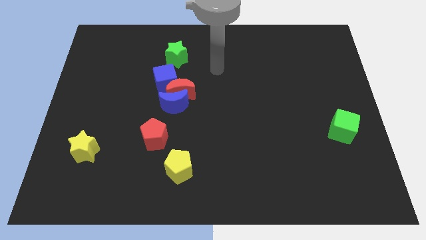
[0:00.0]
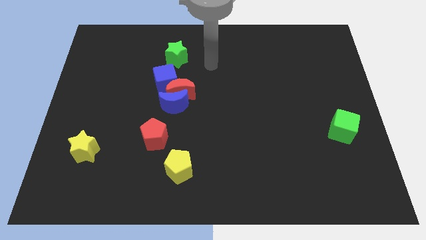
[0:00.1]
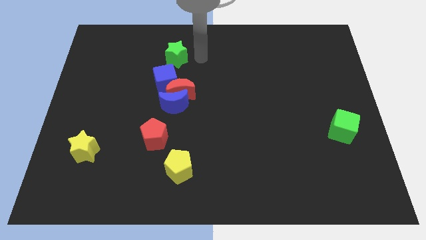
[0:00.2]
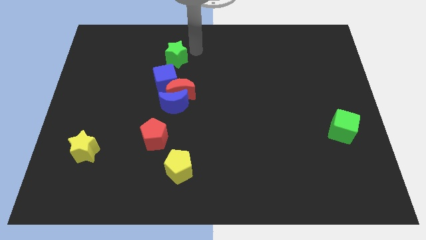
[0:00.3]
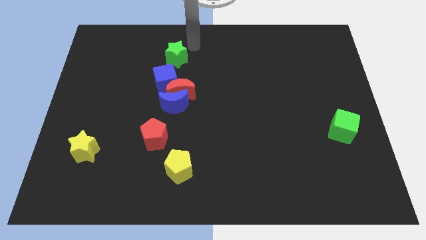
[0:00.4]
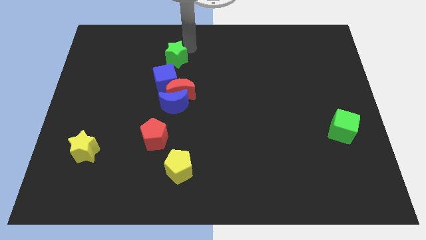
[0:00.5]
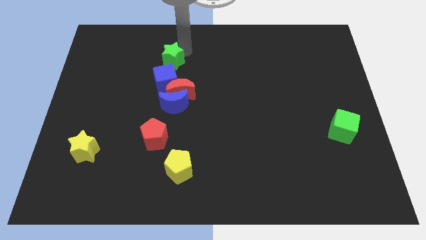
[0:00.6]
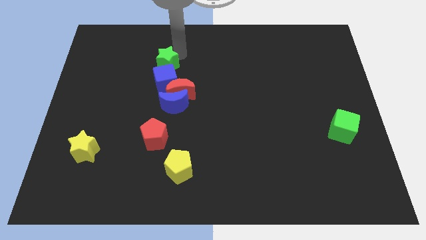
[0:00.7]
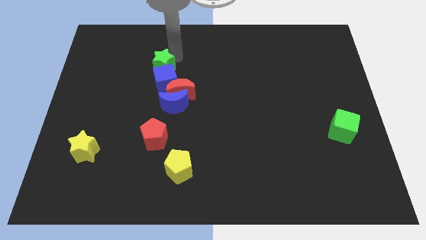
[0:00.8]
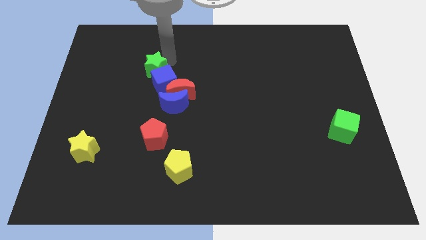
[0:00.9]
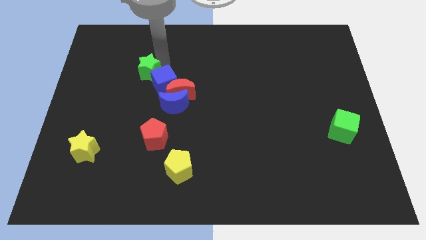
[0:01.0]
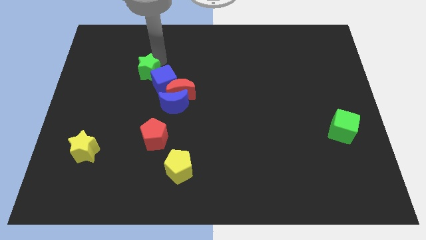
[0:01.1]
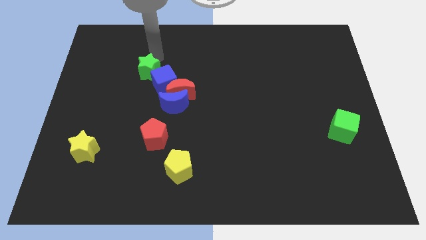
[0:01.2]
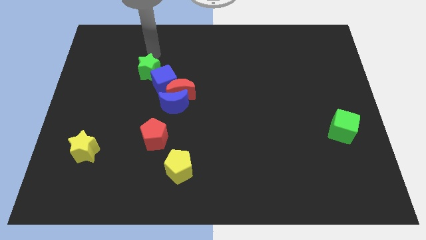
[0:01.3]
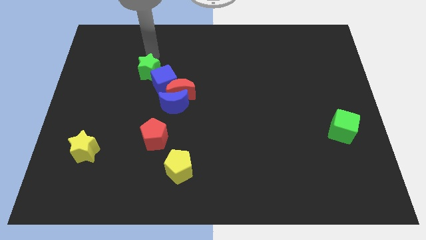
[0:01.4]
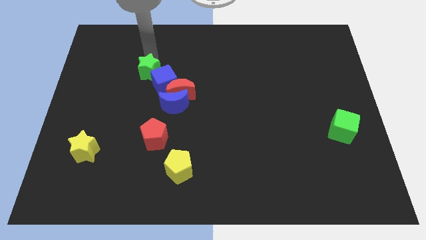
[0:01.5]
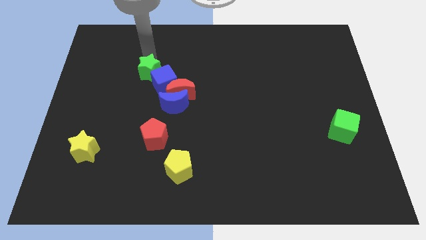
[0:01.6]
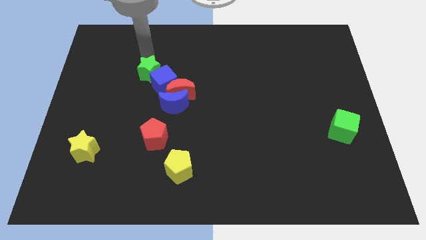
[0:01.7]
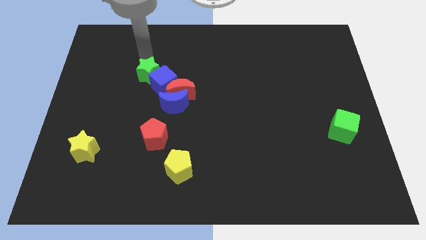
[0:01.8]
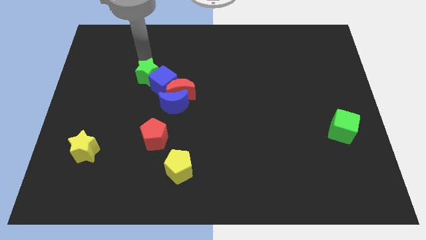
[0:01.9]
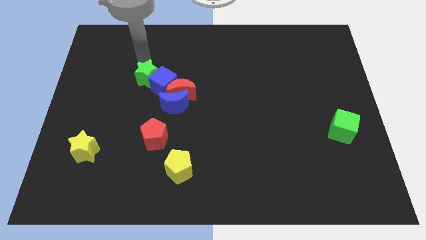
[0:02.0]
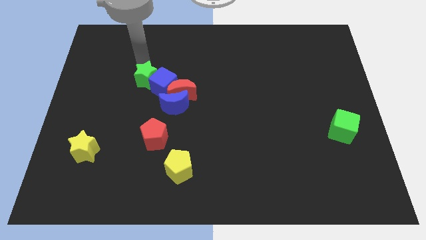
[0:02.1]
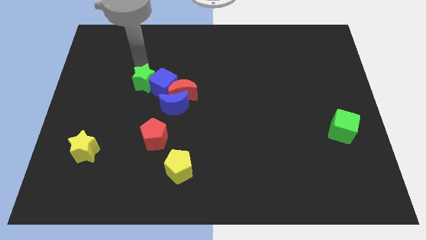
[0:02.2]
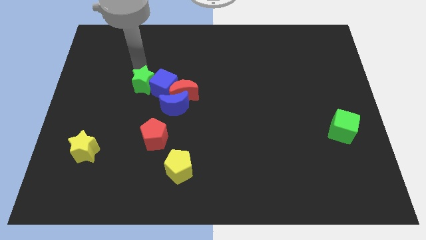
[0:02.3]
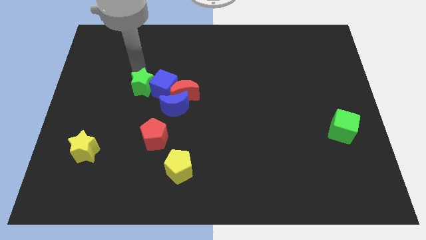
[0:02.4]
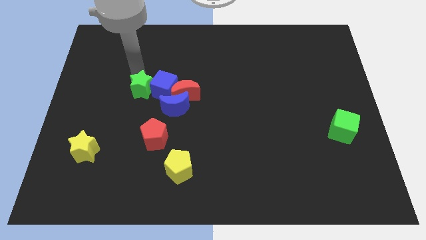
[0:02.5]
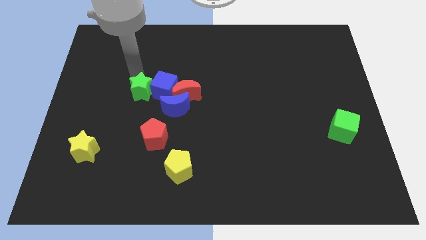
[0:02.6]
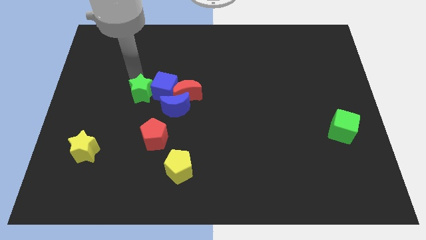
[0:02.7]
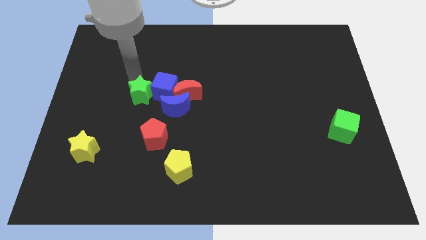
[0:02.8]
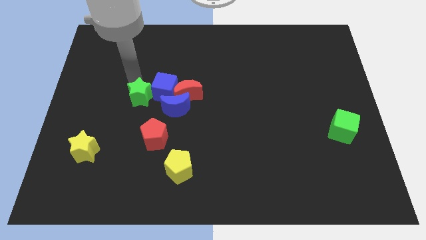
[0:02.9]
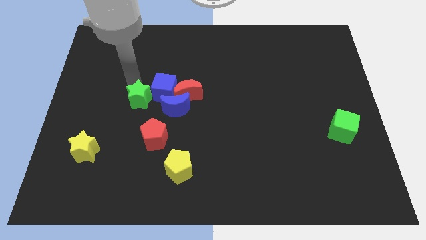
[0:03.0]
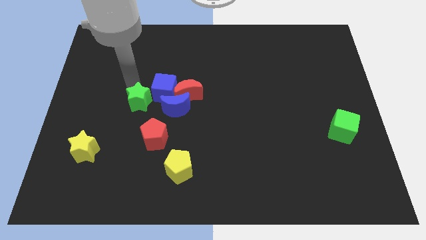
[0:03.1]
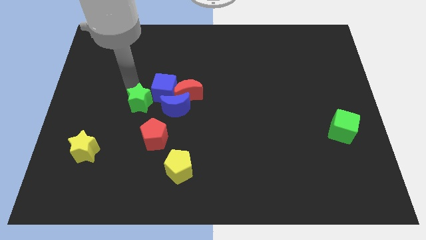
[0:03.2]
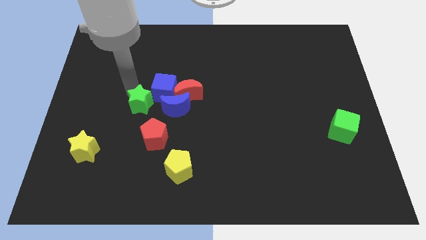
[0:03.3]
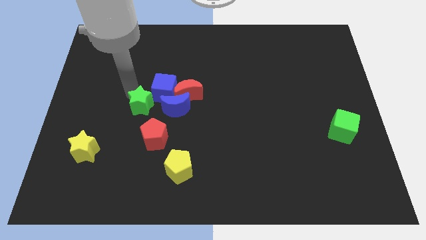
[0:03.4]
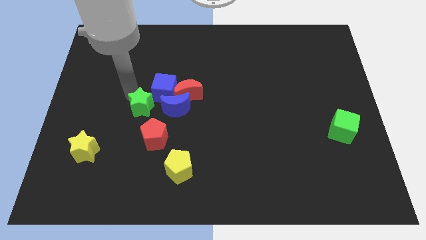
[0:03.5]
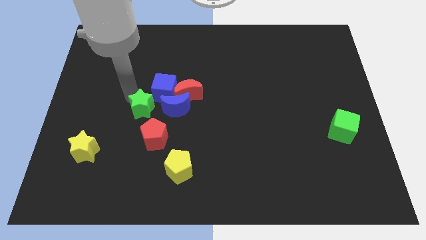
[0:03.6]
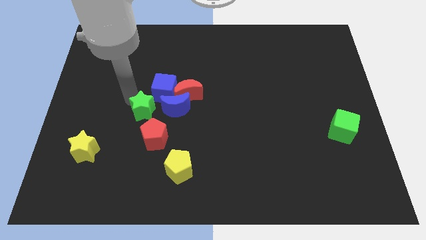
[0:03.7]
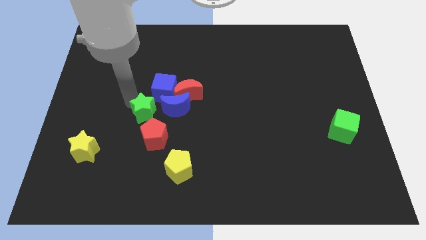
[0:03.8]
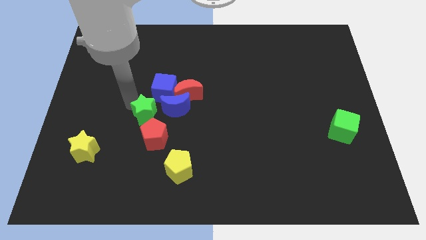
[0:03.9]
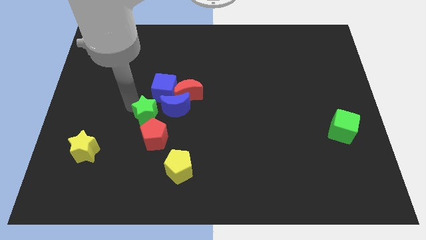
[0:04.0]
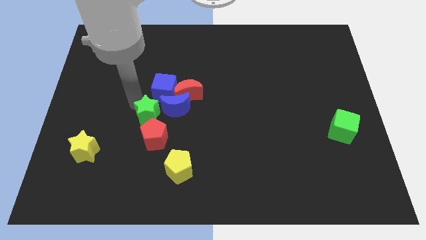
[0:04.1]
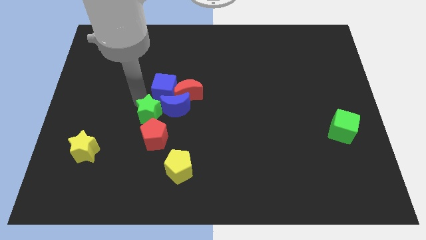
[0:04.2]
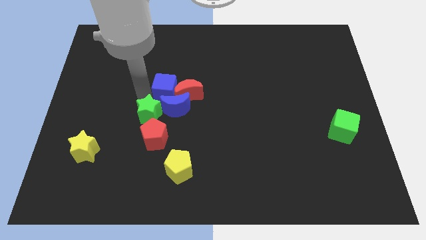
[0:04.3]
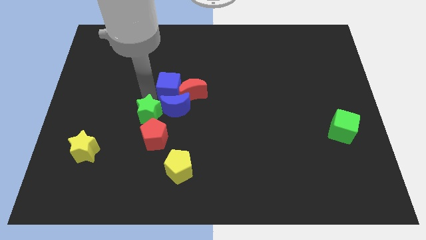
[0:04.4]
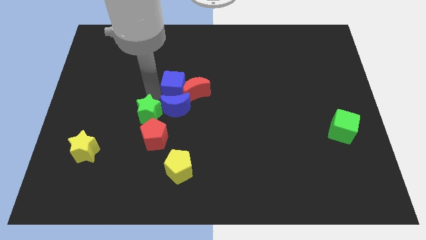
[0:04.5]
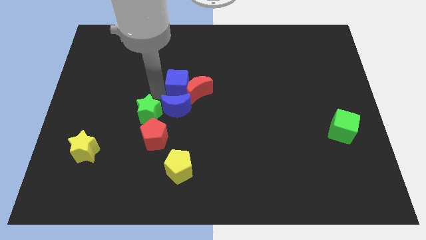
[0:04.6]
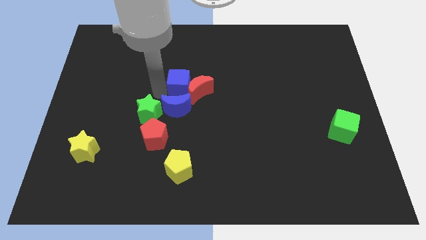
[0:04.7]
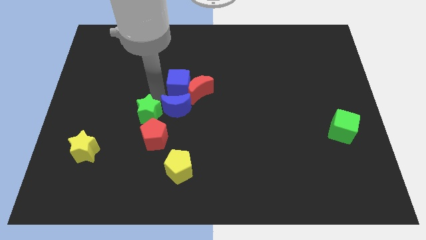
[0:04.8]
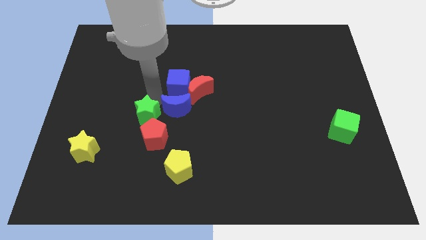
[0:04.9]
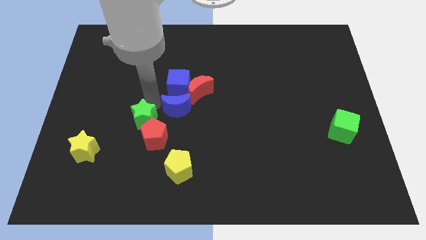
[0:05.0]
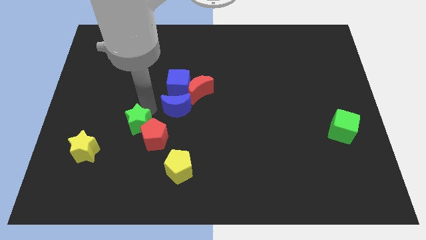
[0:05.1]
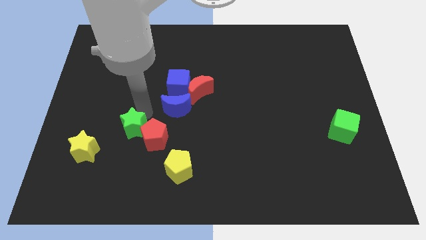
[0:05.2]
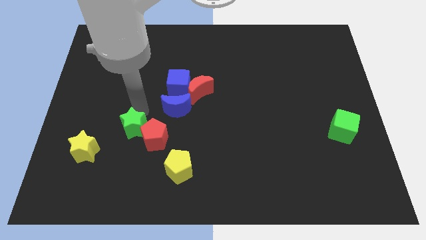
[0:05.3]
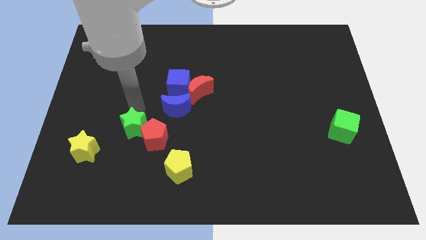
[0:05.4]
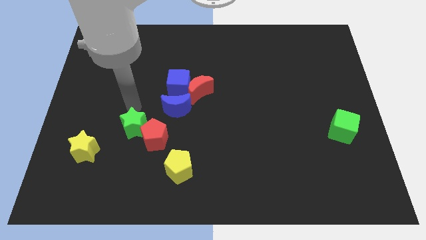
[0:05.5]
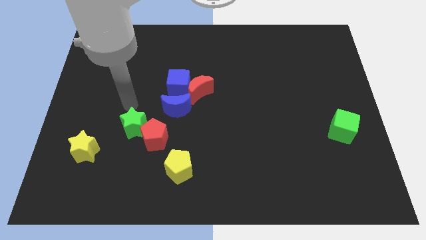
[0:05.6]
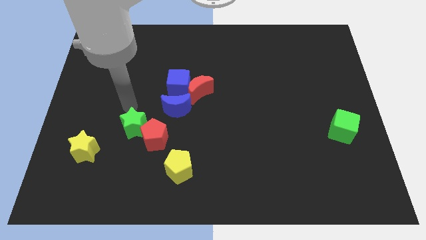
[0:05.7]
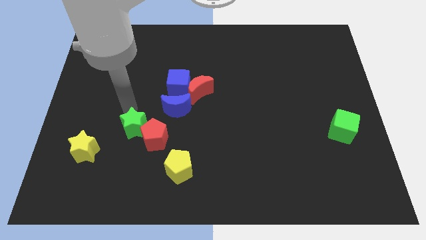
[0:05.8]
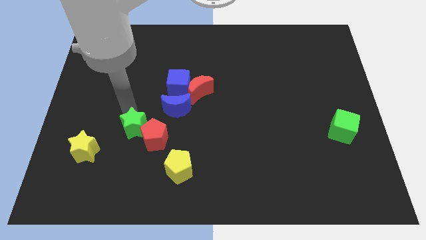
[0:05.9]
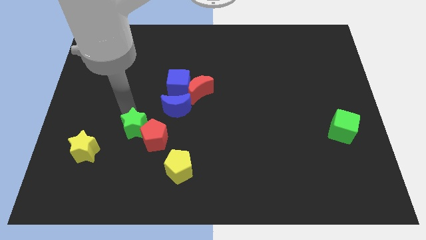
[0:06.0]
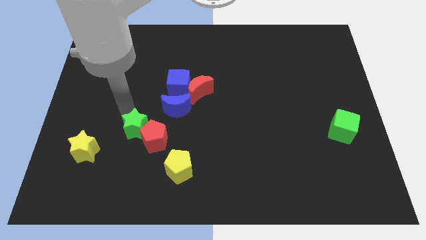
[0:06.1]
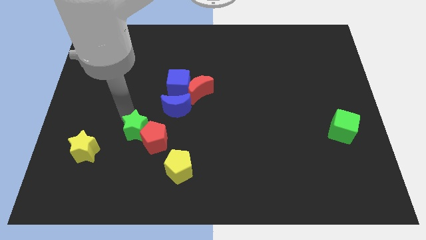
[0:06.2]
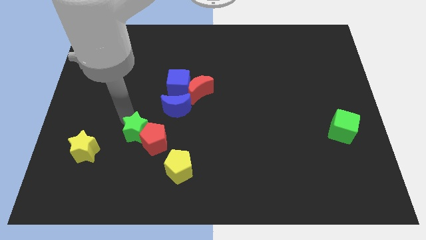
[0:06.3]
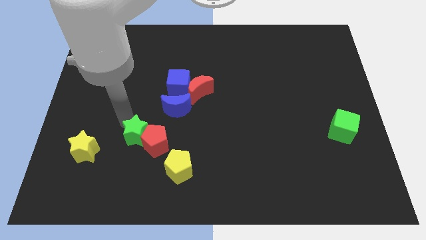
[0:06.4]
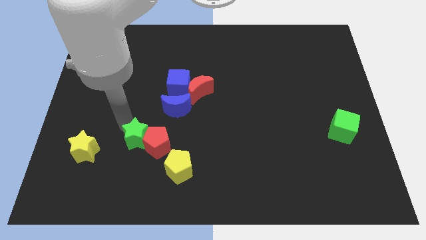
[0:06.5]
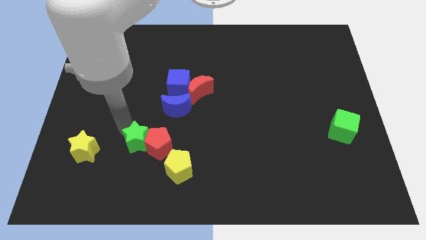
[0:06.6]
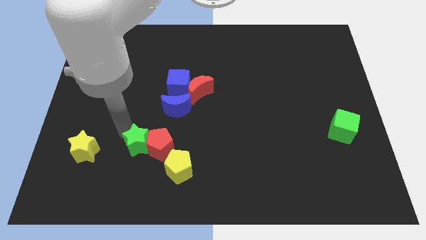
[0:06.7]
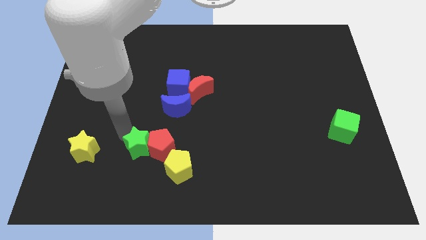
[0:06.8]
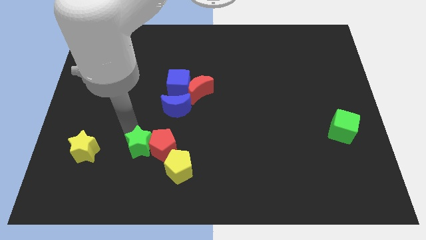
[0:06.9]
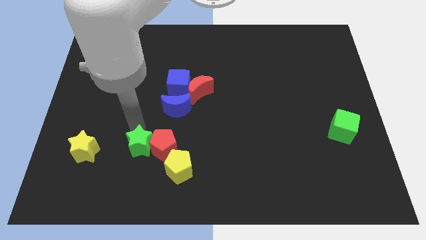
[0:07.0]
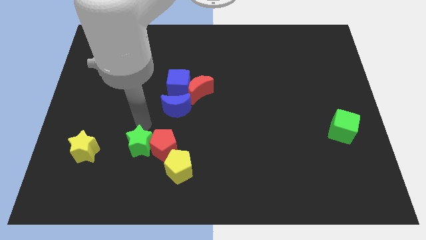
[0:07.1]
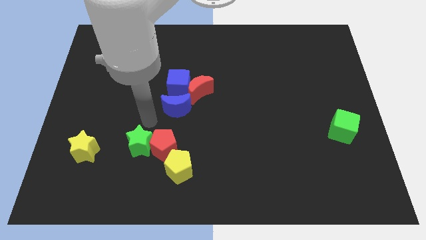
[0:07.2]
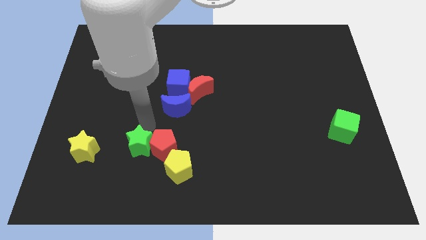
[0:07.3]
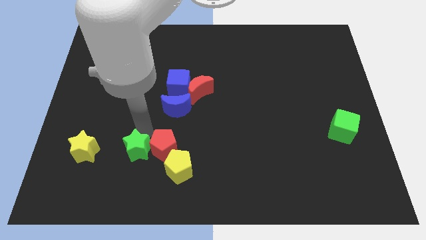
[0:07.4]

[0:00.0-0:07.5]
move the green star just left of the yellow pentagon
